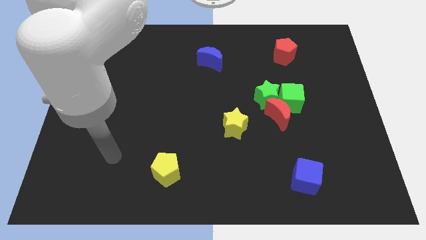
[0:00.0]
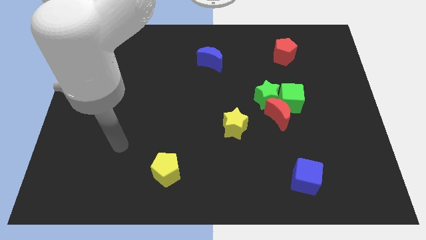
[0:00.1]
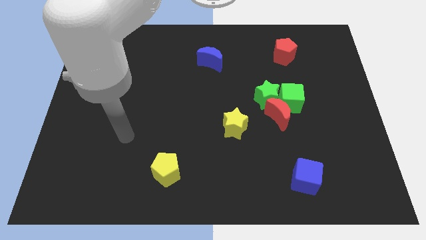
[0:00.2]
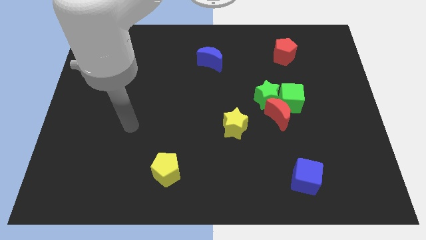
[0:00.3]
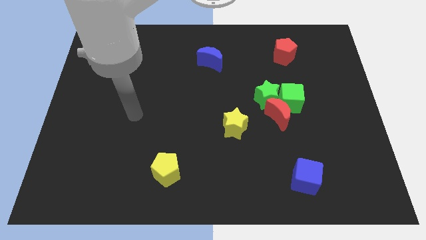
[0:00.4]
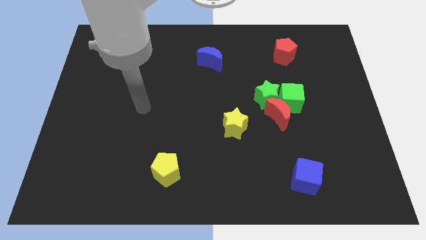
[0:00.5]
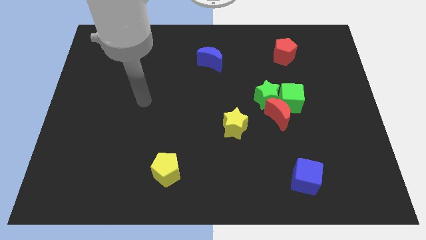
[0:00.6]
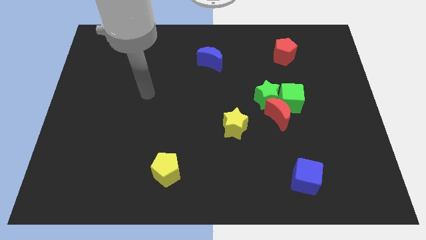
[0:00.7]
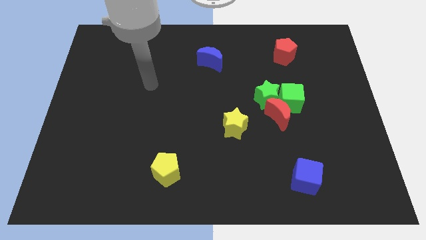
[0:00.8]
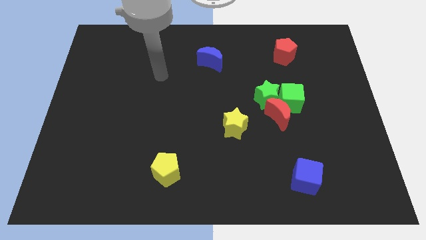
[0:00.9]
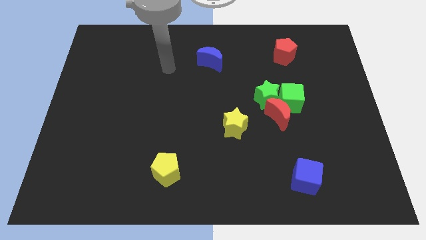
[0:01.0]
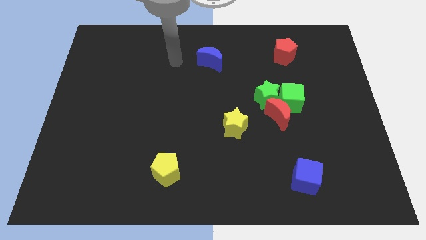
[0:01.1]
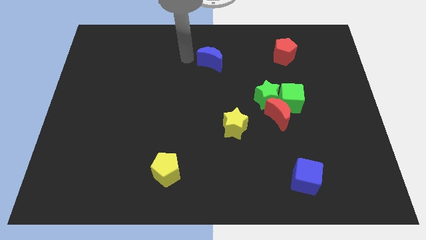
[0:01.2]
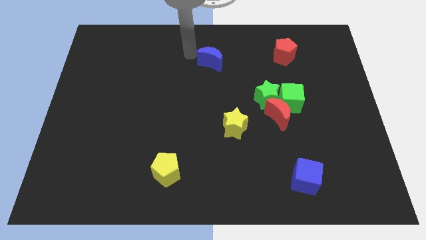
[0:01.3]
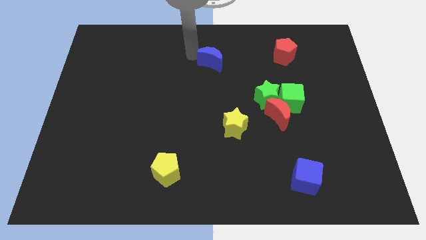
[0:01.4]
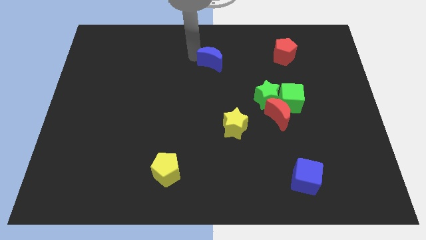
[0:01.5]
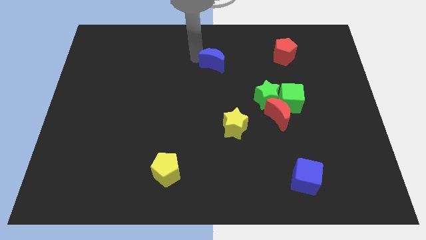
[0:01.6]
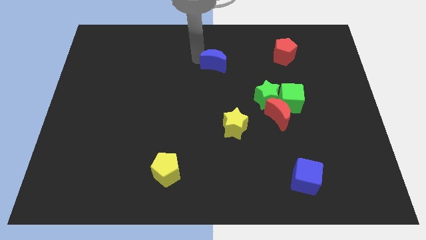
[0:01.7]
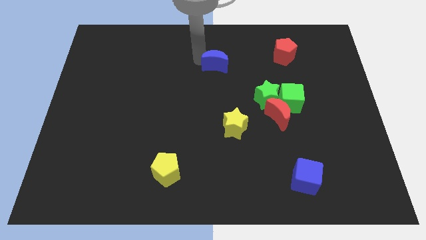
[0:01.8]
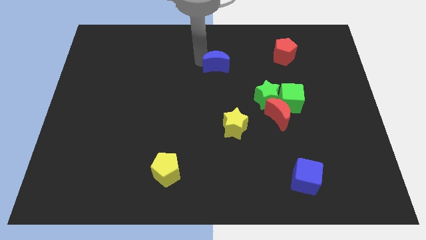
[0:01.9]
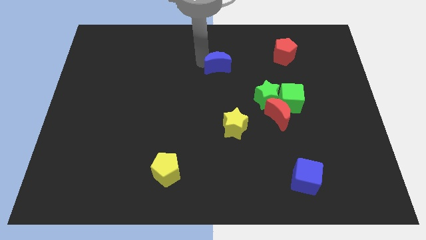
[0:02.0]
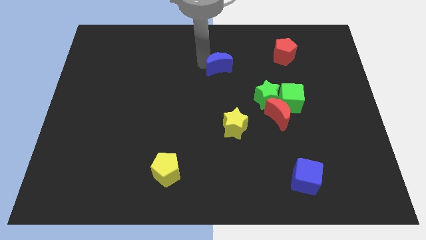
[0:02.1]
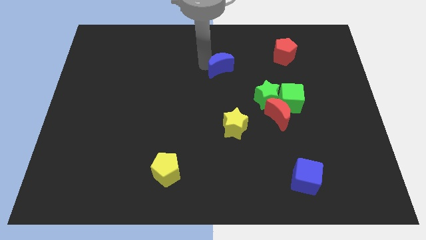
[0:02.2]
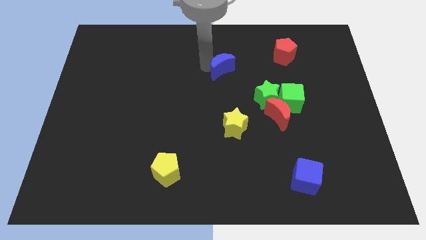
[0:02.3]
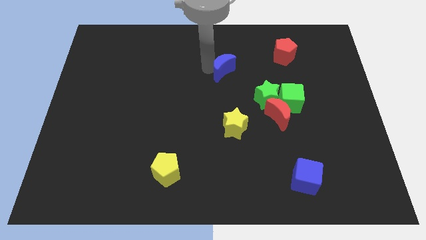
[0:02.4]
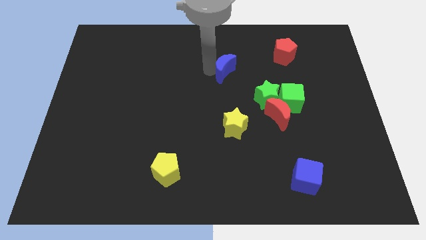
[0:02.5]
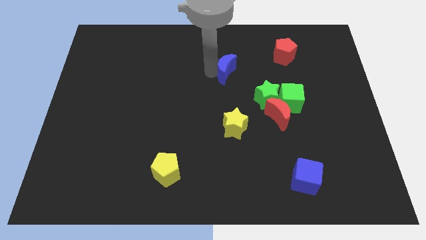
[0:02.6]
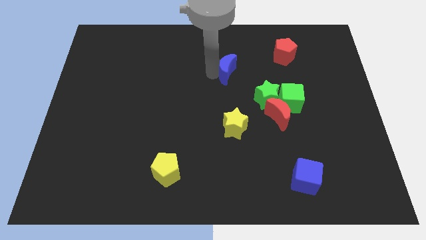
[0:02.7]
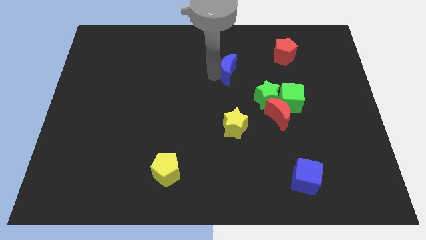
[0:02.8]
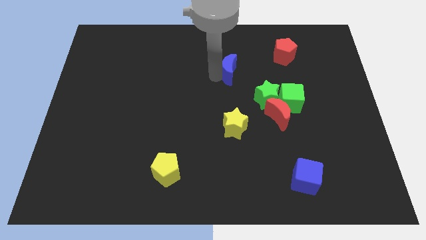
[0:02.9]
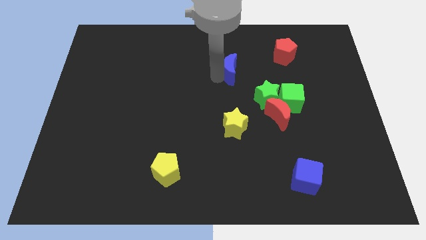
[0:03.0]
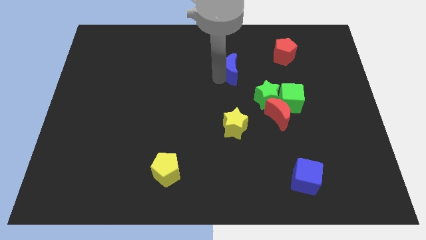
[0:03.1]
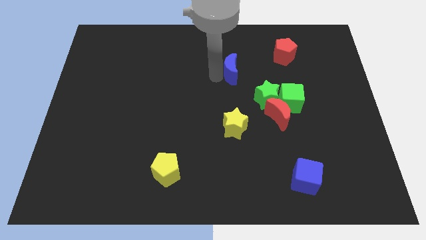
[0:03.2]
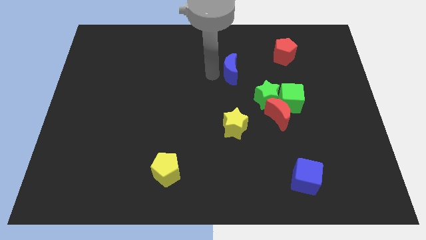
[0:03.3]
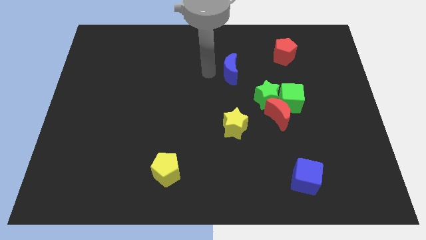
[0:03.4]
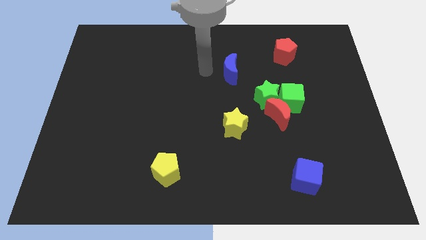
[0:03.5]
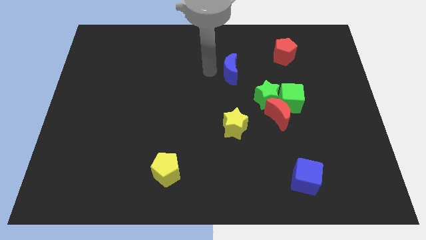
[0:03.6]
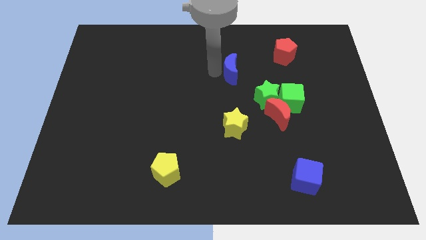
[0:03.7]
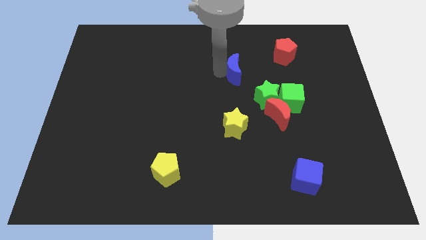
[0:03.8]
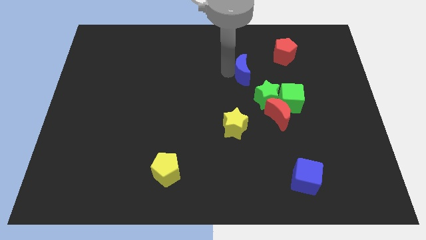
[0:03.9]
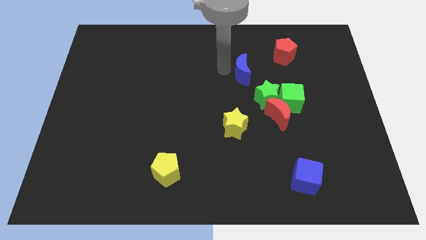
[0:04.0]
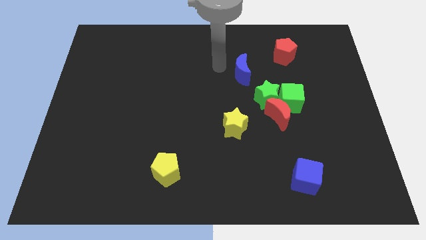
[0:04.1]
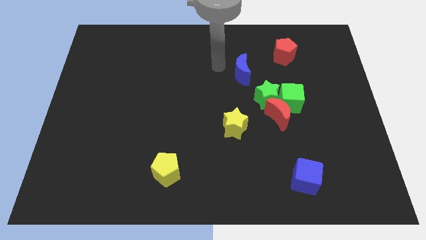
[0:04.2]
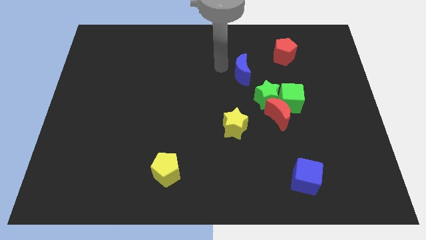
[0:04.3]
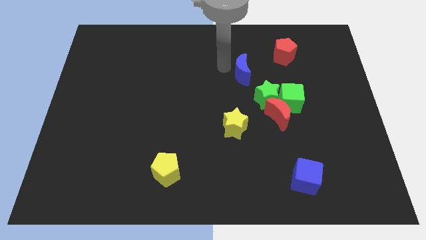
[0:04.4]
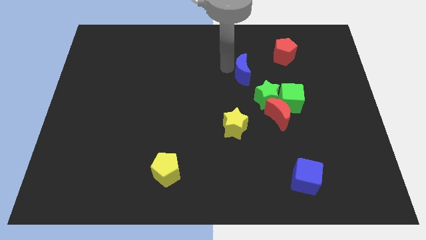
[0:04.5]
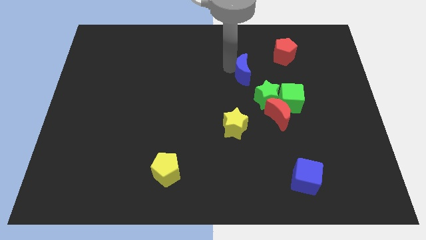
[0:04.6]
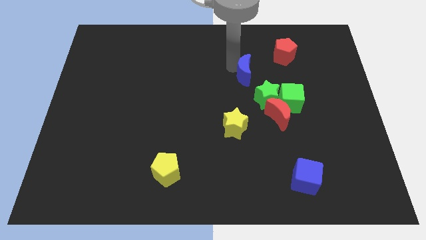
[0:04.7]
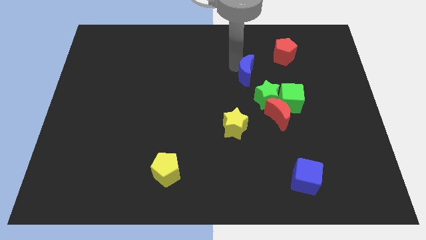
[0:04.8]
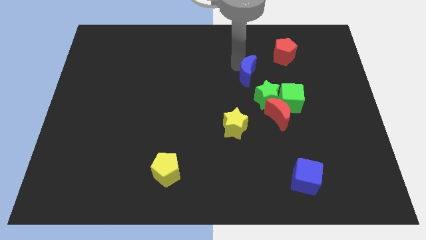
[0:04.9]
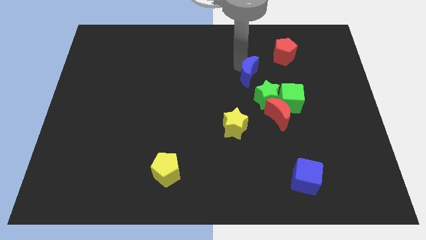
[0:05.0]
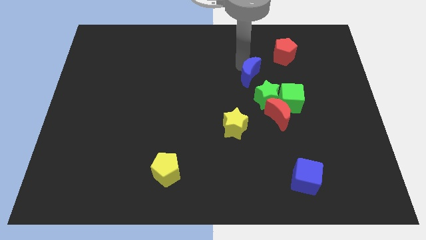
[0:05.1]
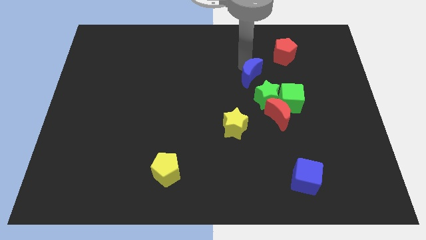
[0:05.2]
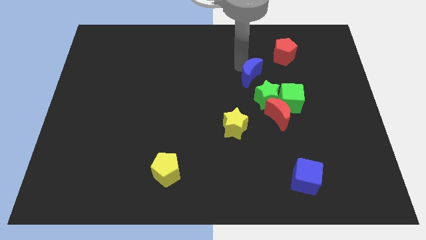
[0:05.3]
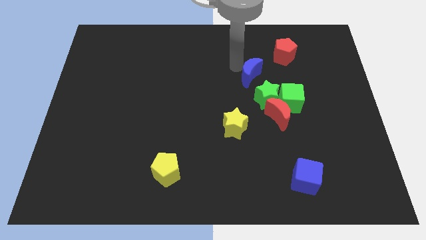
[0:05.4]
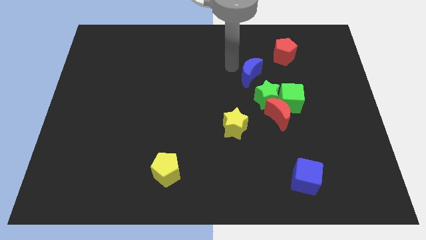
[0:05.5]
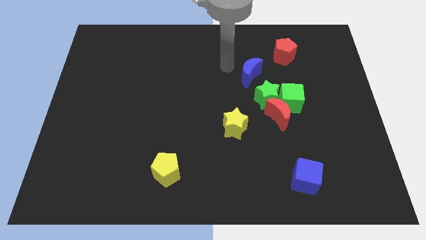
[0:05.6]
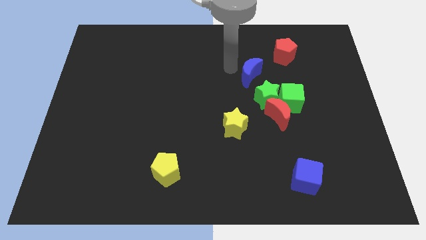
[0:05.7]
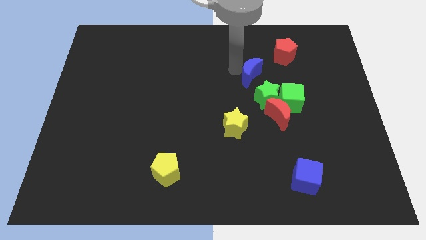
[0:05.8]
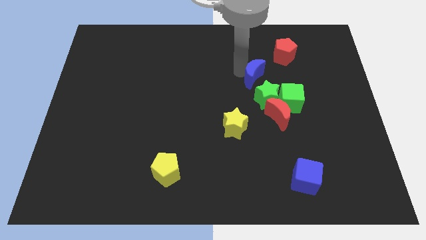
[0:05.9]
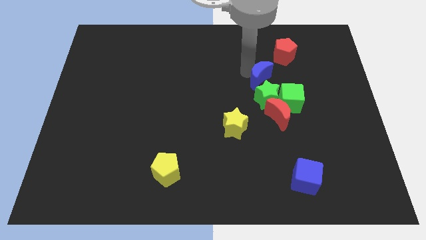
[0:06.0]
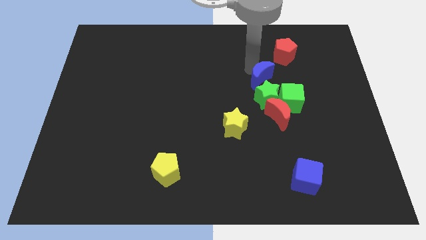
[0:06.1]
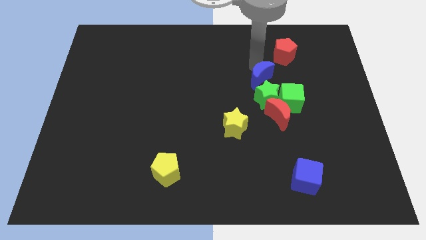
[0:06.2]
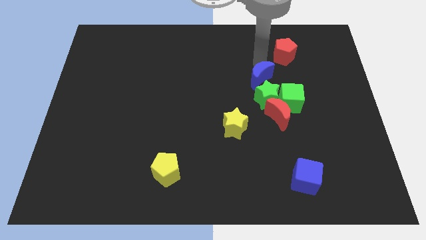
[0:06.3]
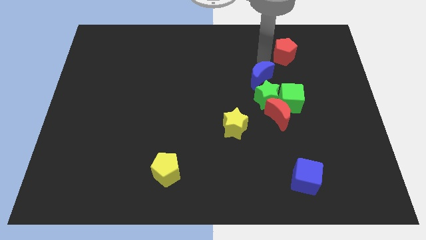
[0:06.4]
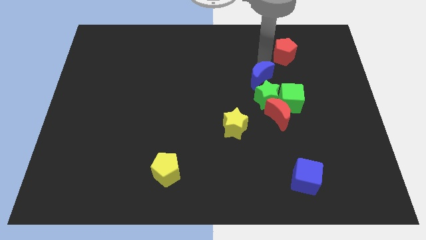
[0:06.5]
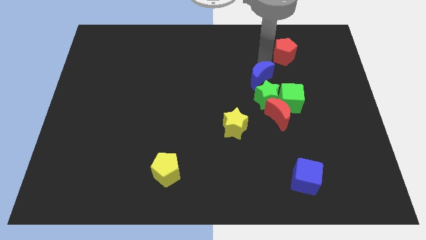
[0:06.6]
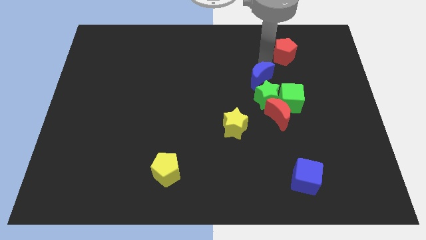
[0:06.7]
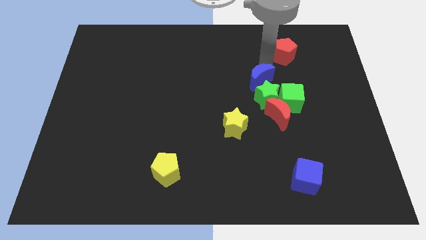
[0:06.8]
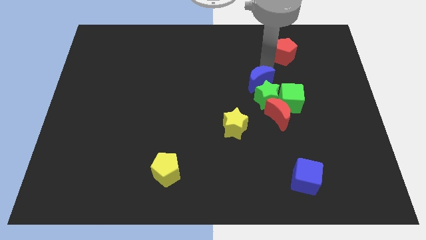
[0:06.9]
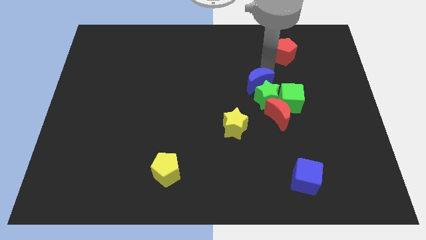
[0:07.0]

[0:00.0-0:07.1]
move the blue moon diagonally up and to the left of the red moon

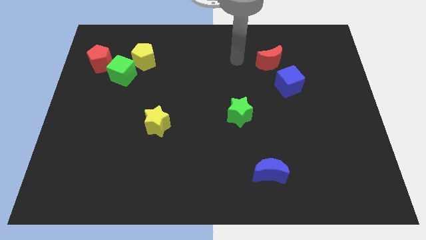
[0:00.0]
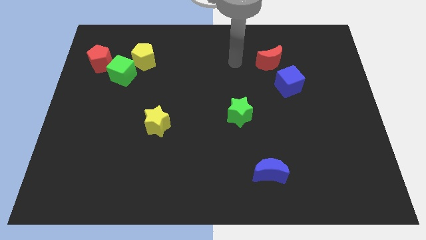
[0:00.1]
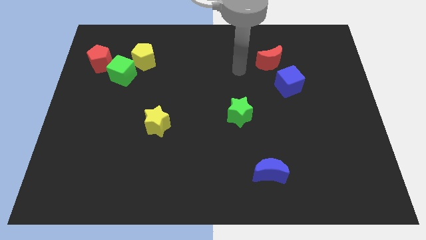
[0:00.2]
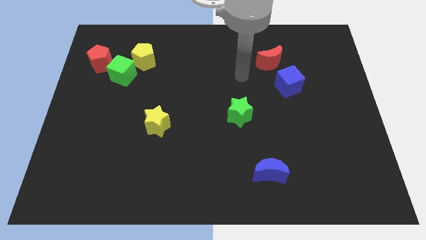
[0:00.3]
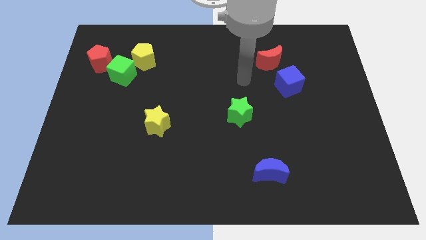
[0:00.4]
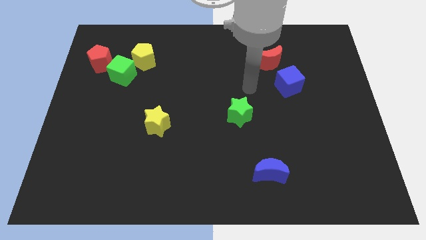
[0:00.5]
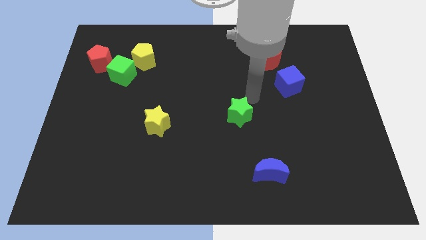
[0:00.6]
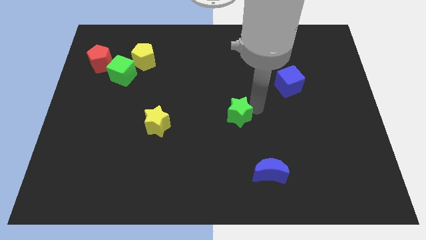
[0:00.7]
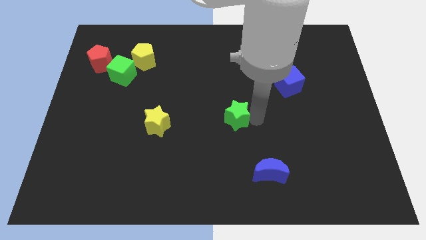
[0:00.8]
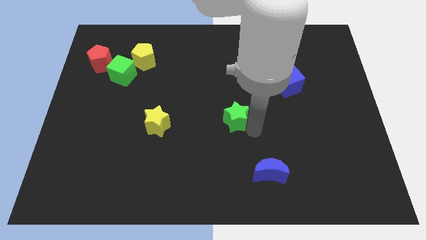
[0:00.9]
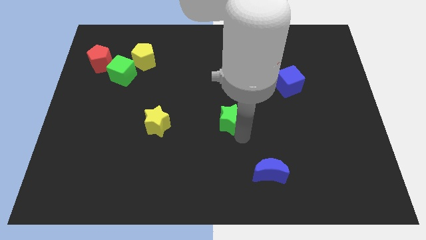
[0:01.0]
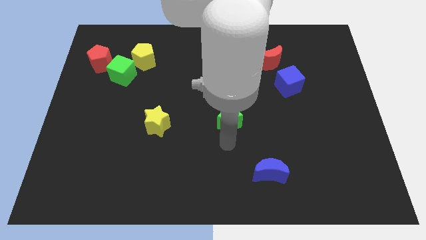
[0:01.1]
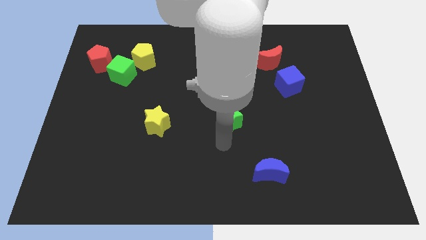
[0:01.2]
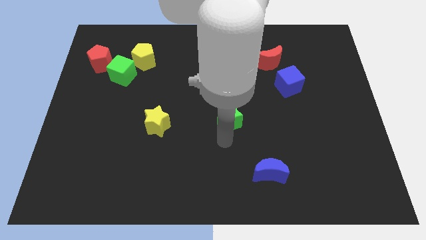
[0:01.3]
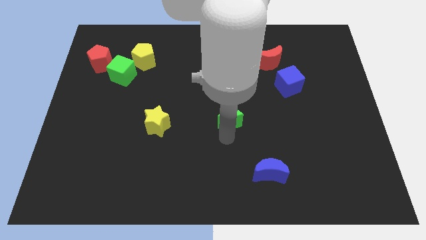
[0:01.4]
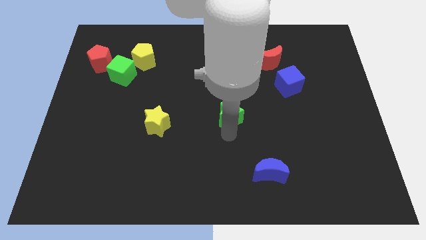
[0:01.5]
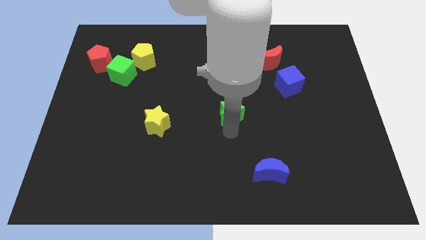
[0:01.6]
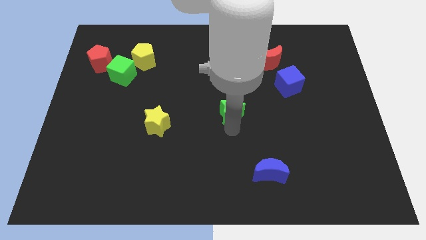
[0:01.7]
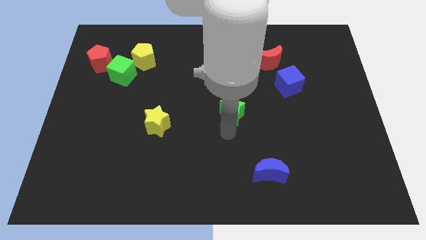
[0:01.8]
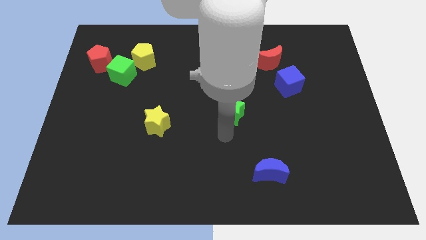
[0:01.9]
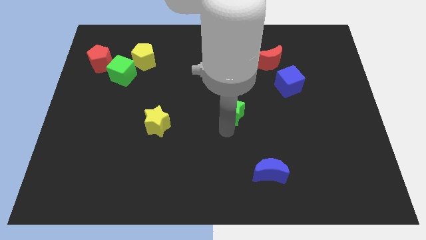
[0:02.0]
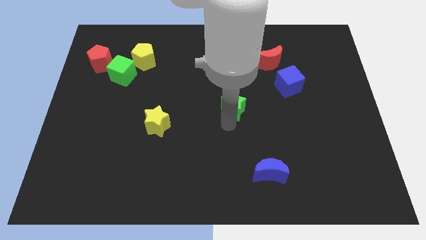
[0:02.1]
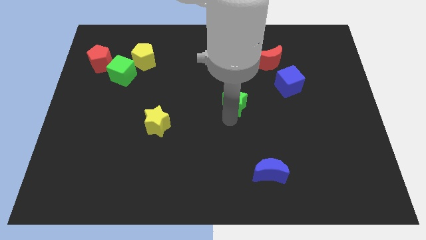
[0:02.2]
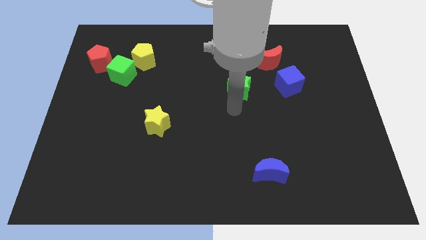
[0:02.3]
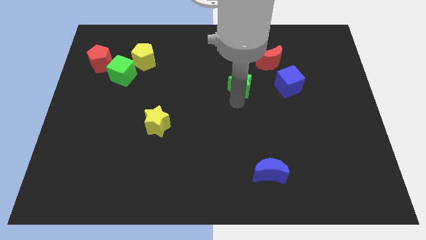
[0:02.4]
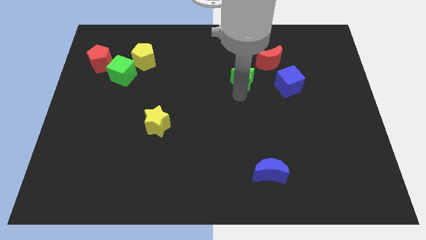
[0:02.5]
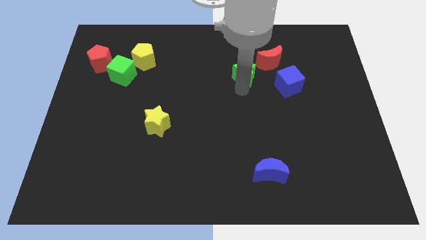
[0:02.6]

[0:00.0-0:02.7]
move the green star just left of the red moon
